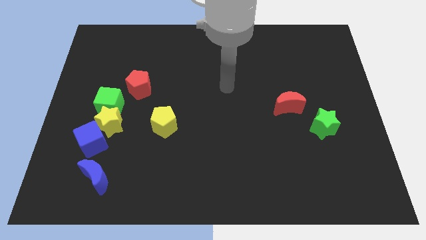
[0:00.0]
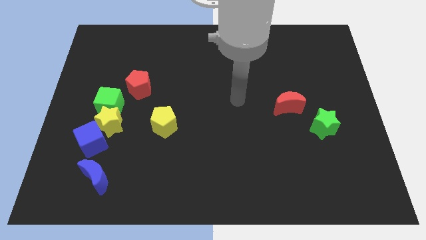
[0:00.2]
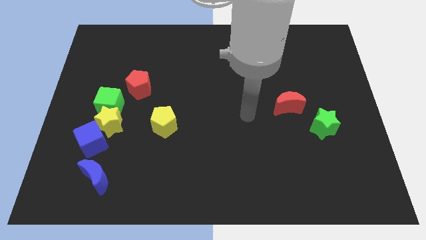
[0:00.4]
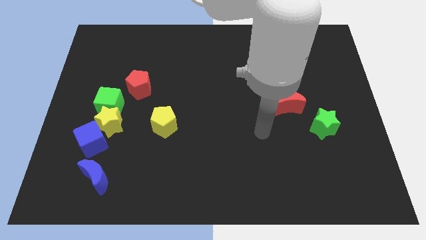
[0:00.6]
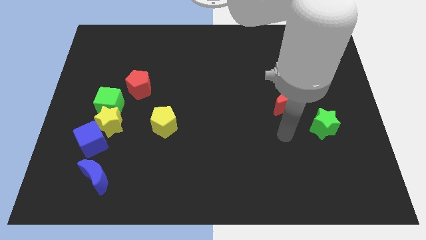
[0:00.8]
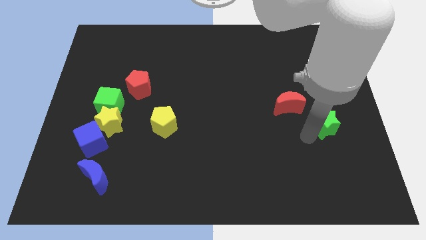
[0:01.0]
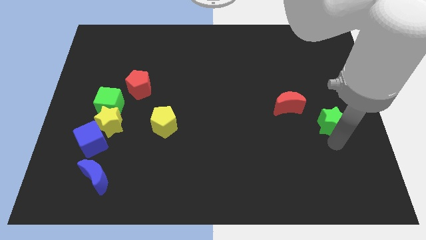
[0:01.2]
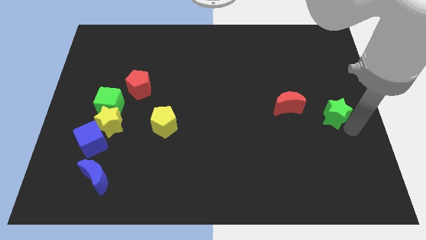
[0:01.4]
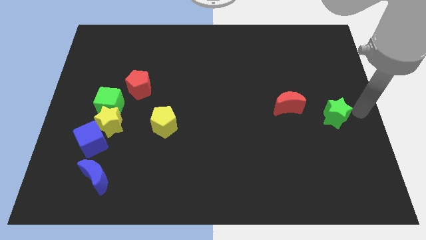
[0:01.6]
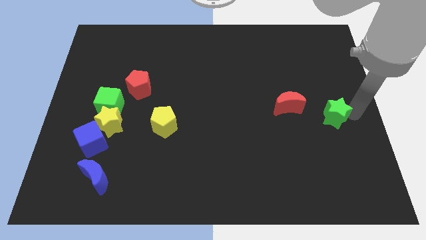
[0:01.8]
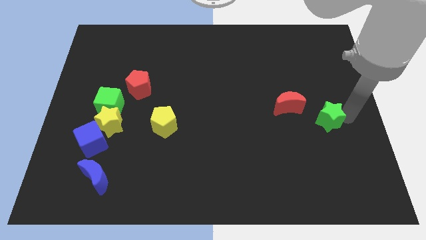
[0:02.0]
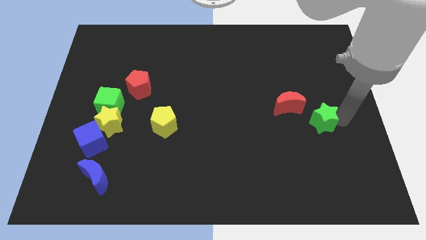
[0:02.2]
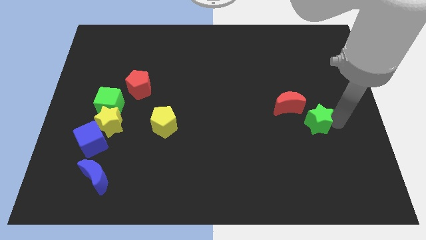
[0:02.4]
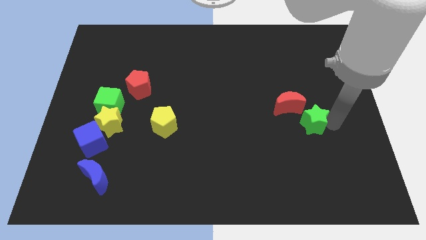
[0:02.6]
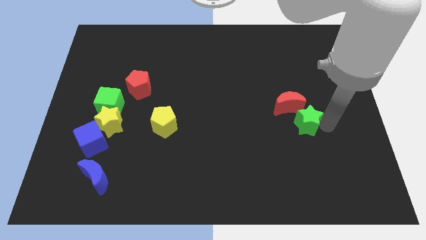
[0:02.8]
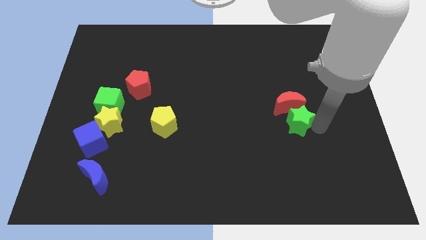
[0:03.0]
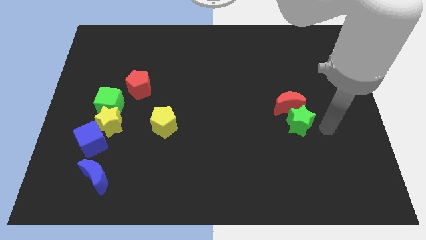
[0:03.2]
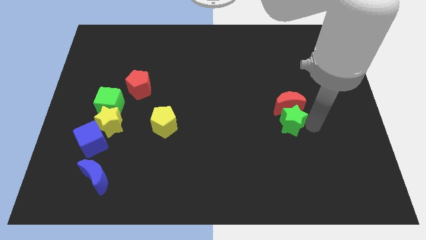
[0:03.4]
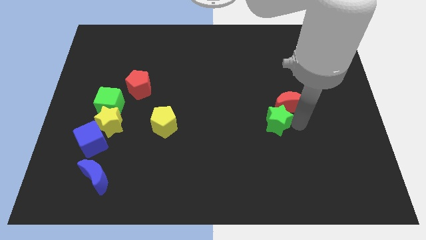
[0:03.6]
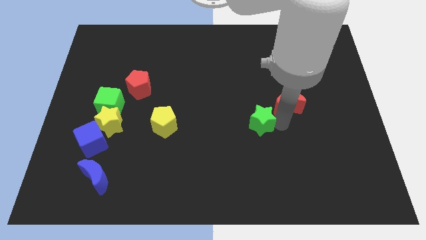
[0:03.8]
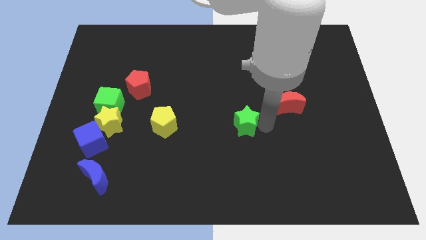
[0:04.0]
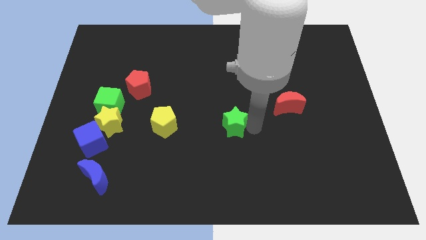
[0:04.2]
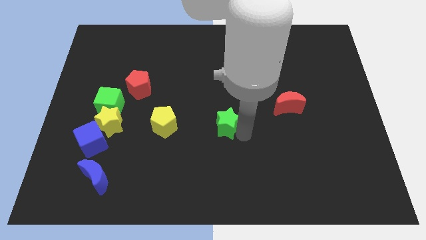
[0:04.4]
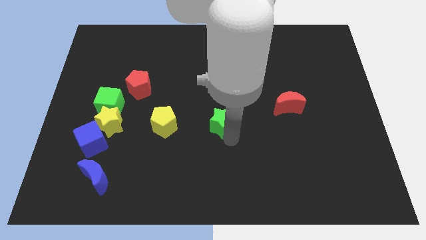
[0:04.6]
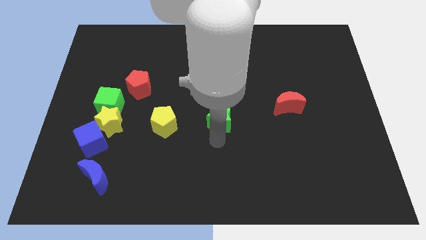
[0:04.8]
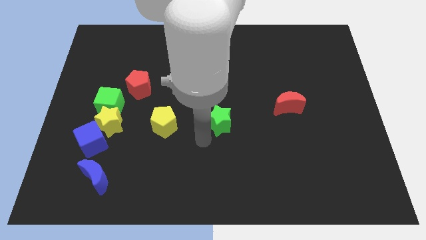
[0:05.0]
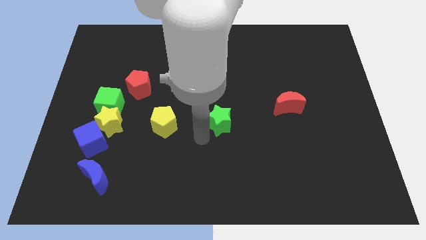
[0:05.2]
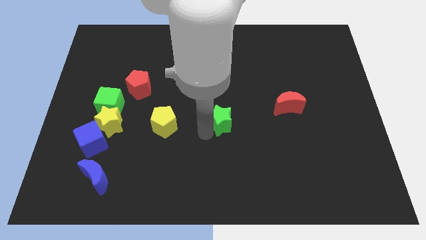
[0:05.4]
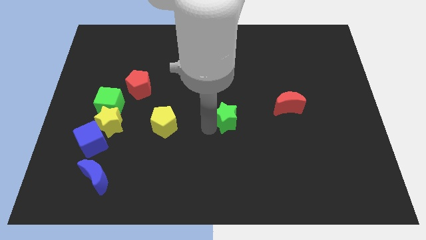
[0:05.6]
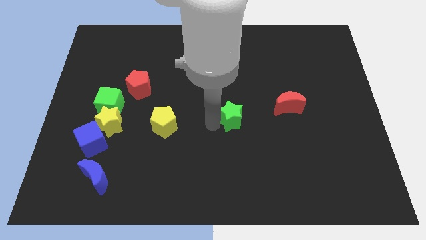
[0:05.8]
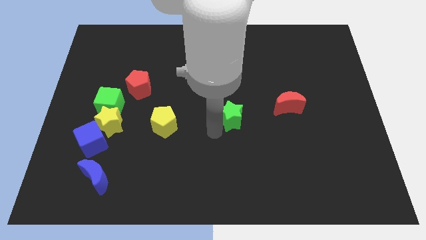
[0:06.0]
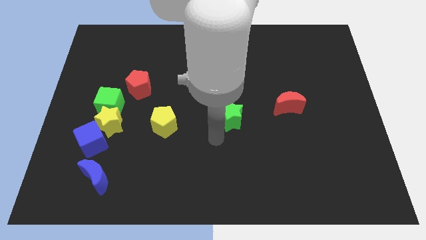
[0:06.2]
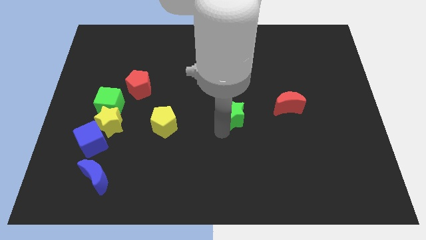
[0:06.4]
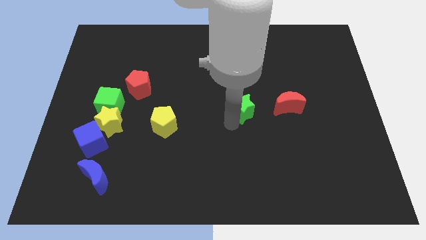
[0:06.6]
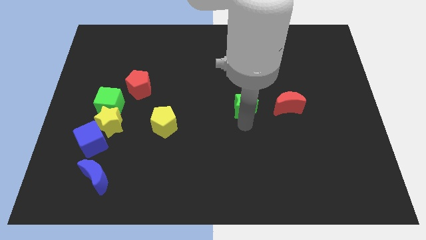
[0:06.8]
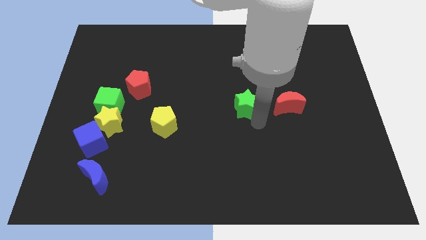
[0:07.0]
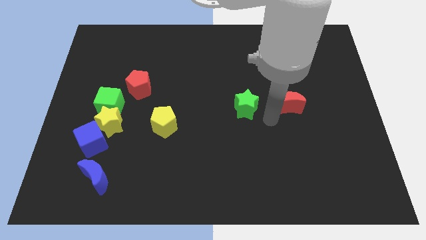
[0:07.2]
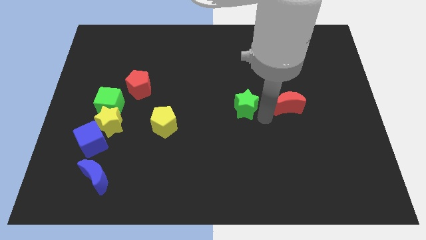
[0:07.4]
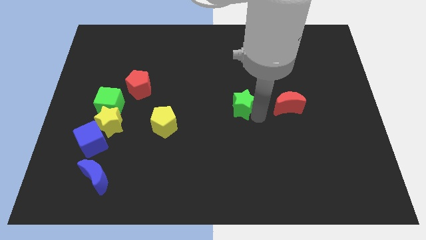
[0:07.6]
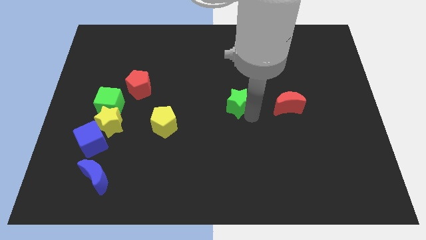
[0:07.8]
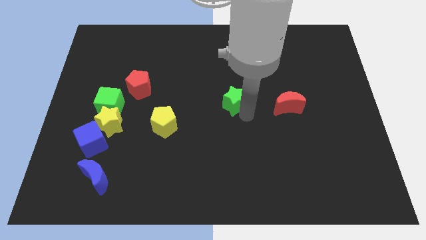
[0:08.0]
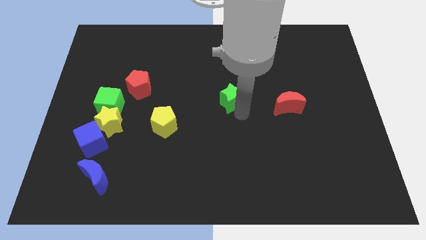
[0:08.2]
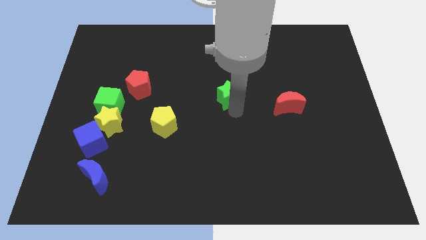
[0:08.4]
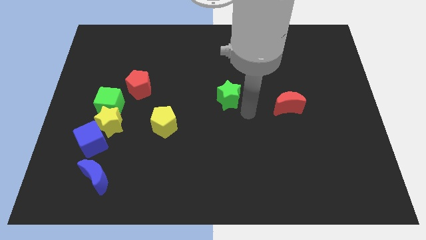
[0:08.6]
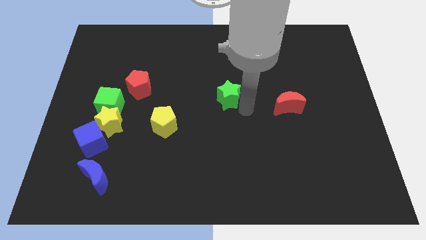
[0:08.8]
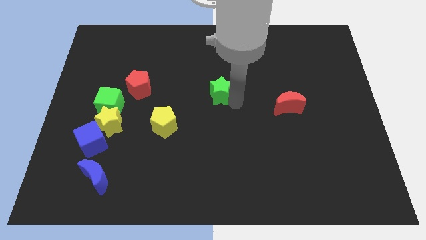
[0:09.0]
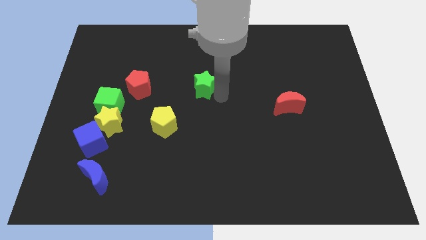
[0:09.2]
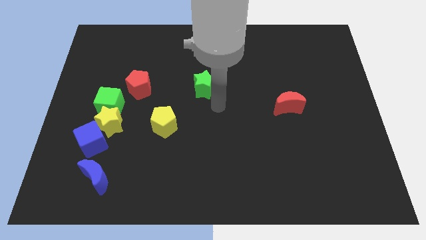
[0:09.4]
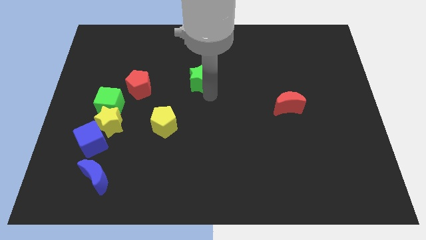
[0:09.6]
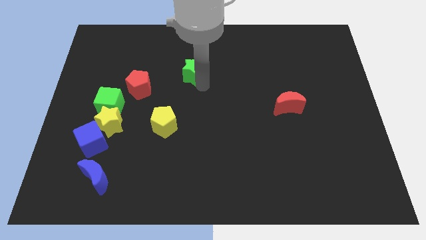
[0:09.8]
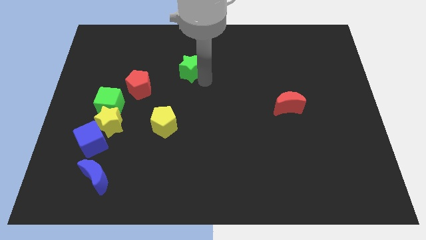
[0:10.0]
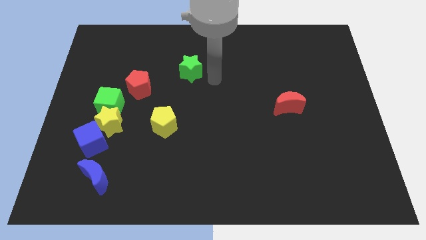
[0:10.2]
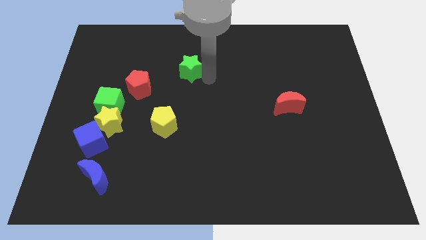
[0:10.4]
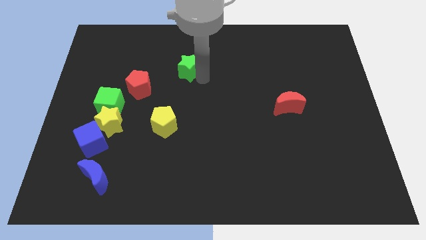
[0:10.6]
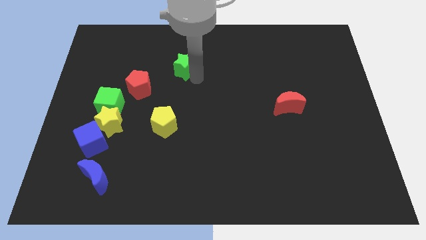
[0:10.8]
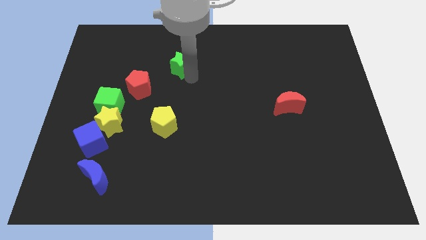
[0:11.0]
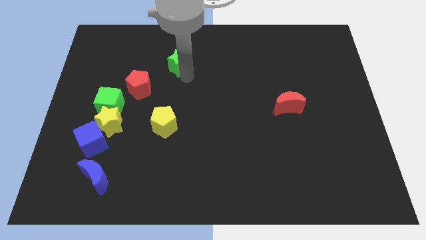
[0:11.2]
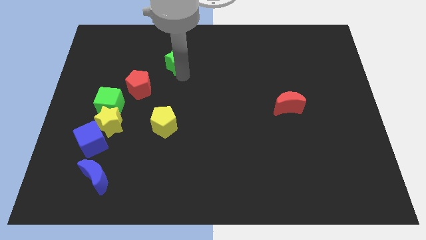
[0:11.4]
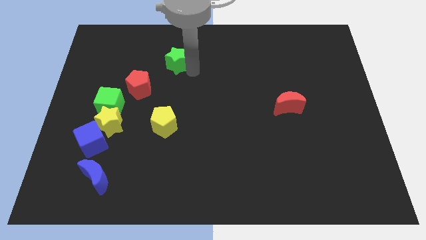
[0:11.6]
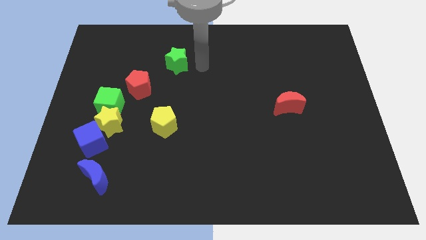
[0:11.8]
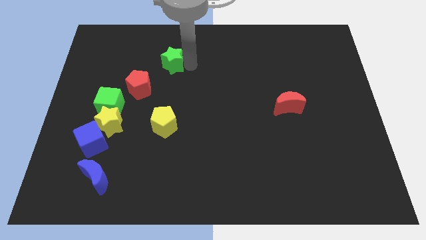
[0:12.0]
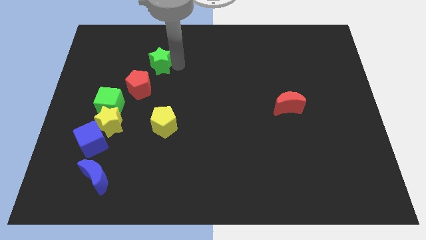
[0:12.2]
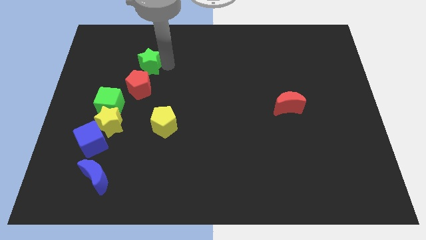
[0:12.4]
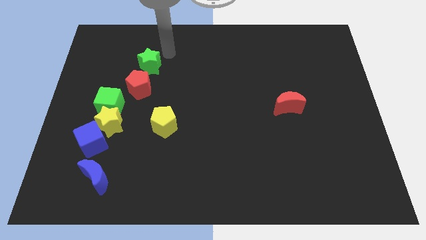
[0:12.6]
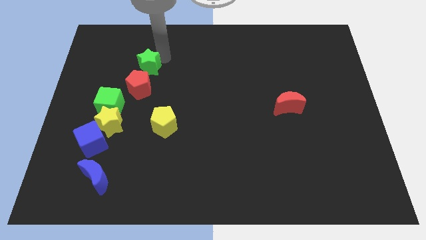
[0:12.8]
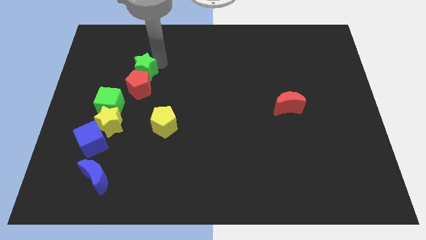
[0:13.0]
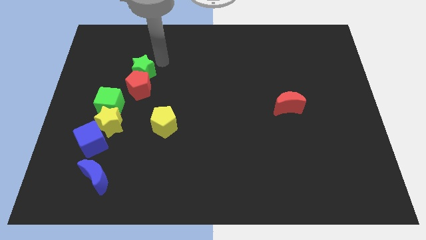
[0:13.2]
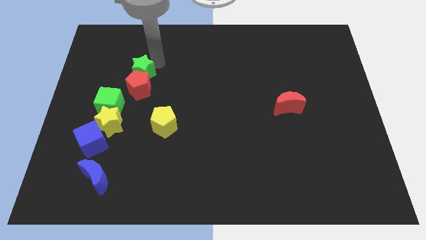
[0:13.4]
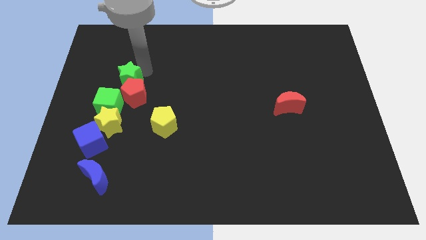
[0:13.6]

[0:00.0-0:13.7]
move the green star to the top side of the yellow star

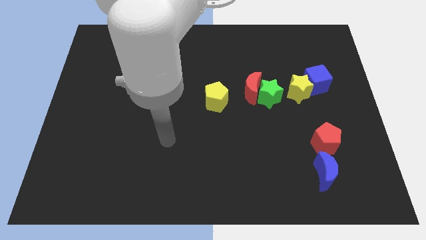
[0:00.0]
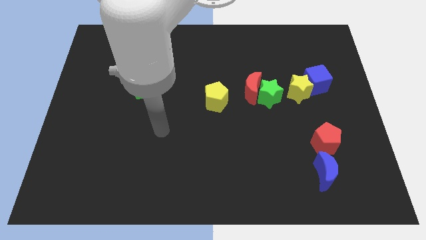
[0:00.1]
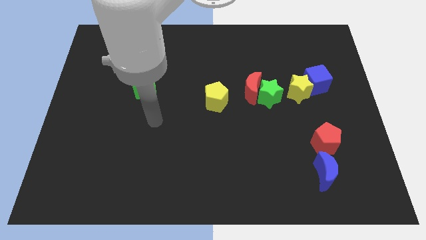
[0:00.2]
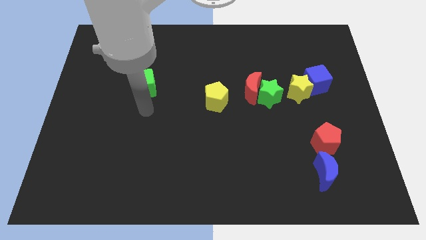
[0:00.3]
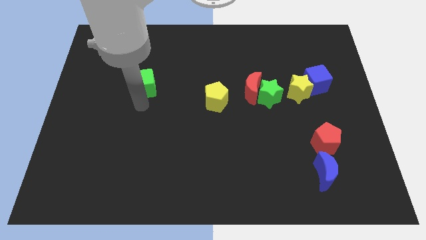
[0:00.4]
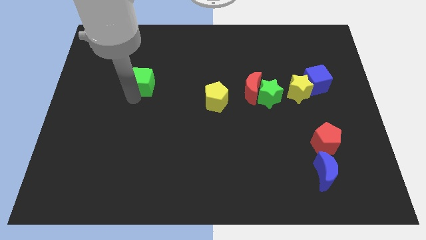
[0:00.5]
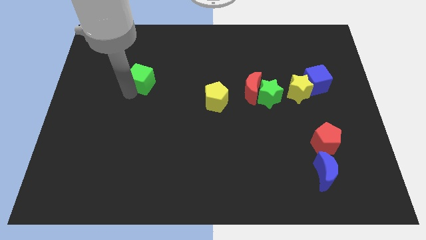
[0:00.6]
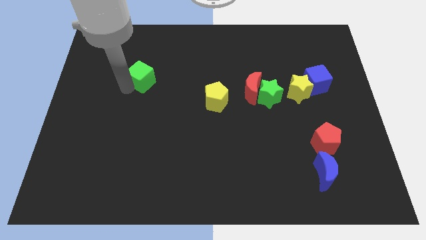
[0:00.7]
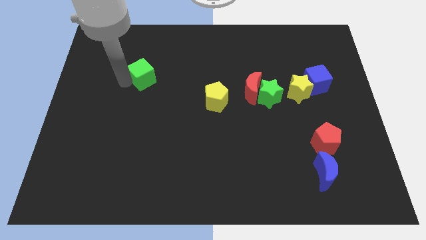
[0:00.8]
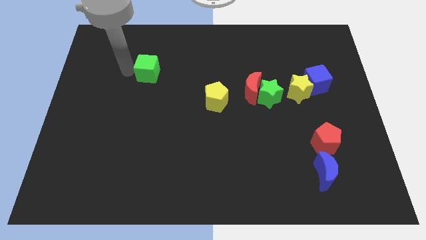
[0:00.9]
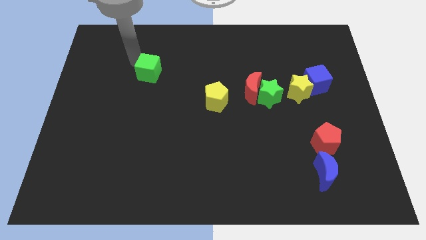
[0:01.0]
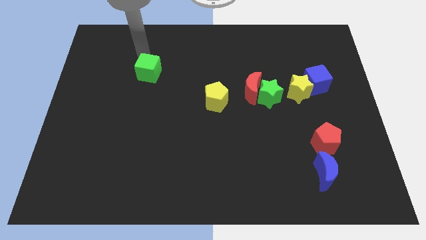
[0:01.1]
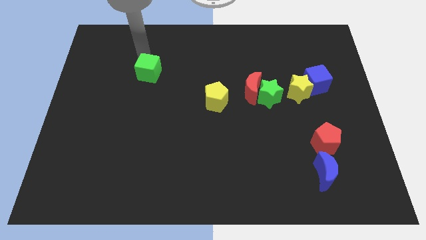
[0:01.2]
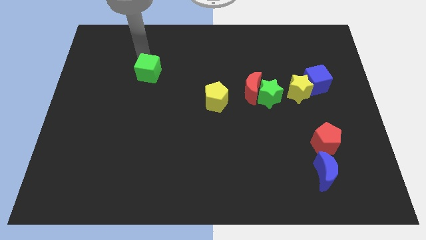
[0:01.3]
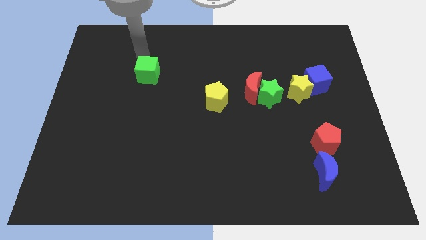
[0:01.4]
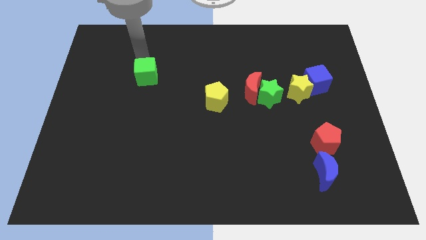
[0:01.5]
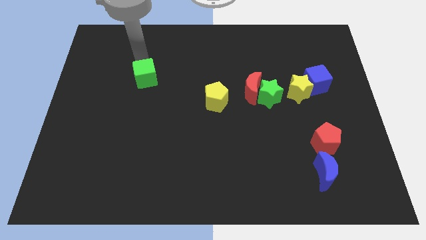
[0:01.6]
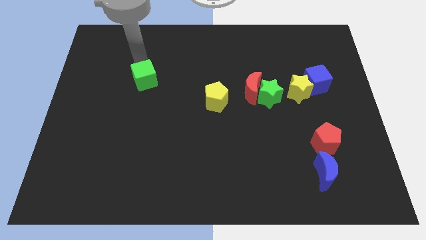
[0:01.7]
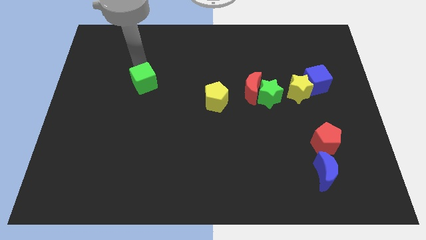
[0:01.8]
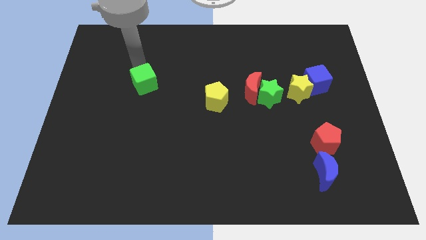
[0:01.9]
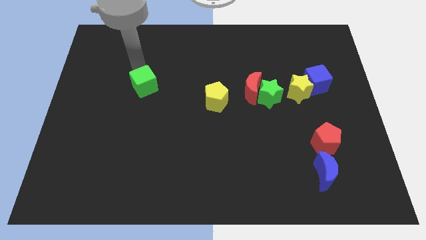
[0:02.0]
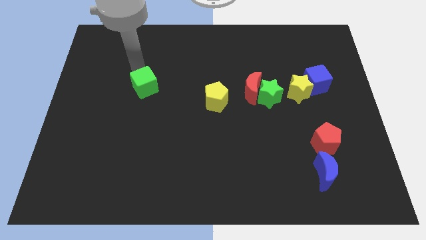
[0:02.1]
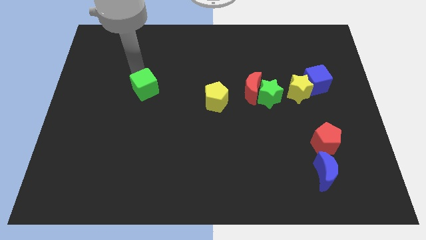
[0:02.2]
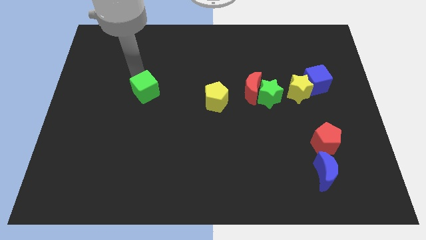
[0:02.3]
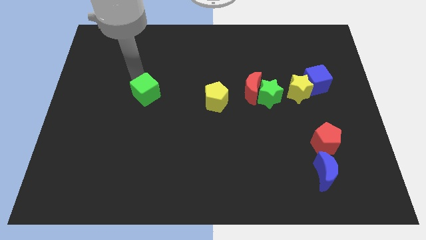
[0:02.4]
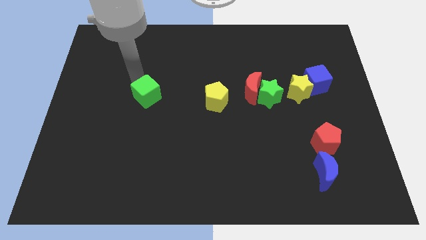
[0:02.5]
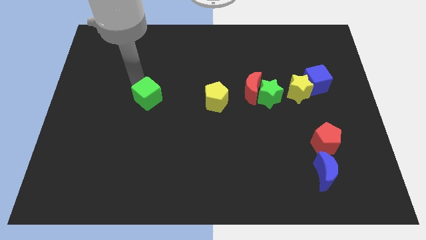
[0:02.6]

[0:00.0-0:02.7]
push the green cube to the left side of the yellow pentagon
